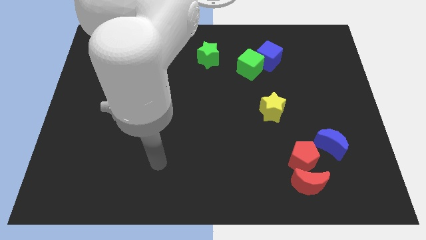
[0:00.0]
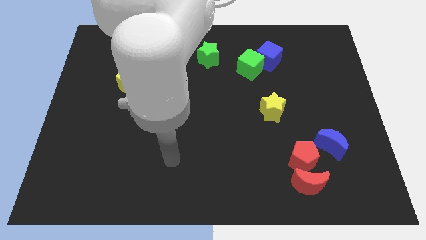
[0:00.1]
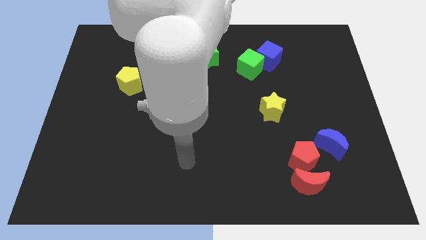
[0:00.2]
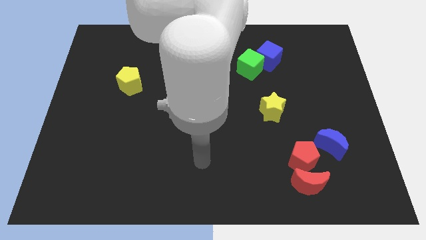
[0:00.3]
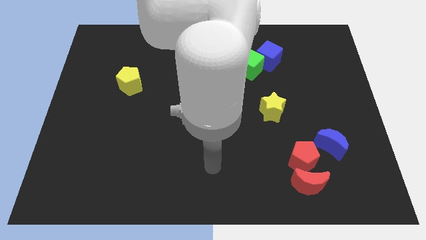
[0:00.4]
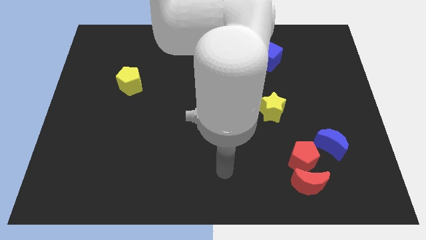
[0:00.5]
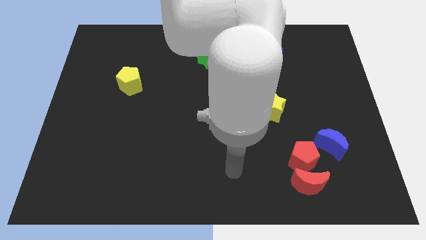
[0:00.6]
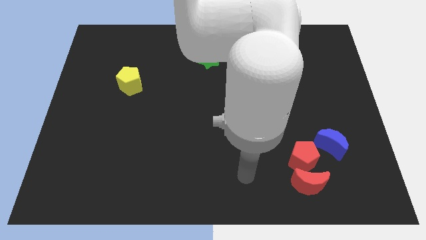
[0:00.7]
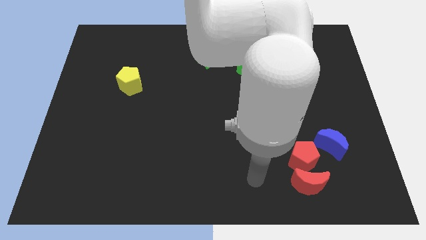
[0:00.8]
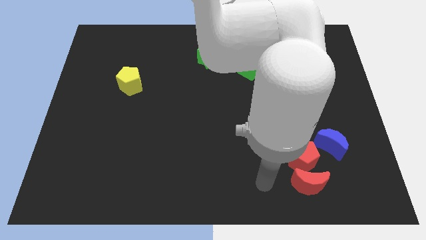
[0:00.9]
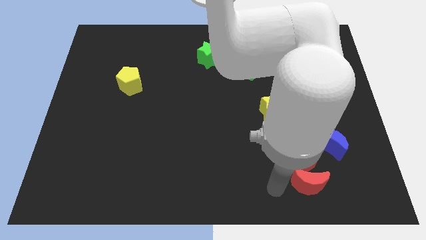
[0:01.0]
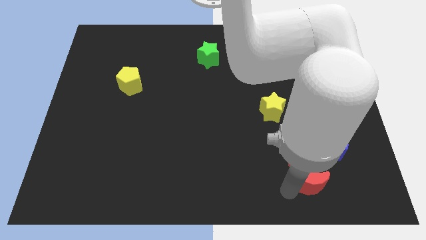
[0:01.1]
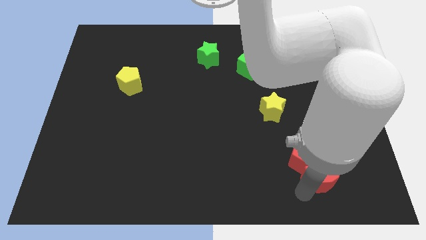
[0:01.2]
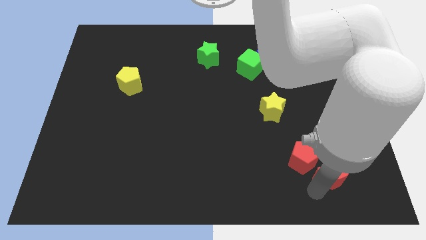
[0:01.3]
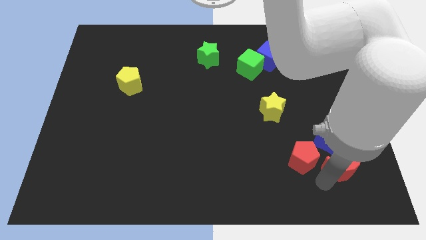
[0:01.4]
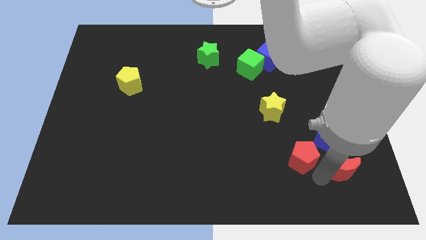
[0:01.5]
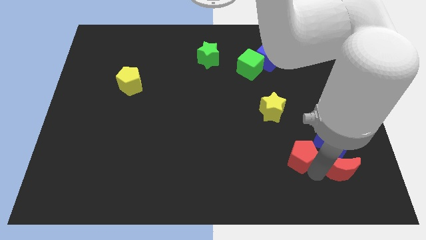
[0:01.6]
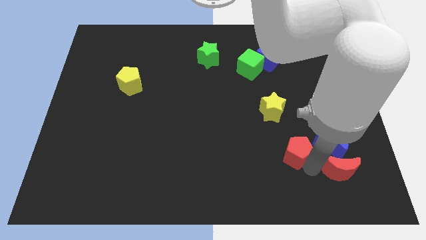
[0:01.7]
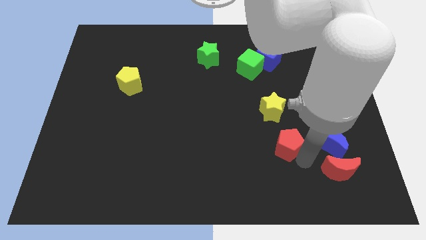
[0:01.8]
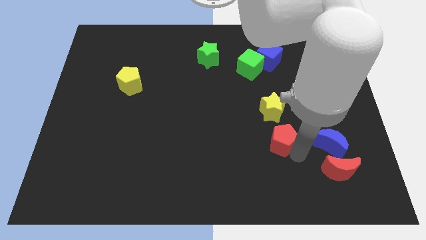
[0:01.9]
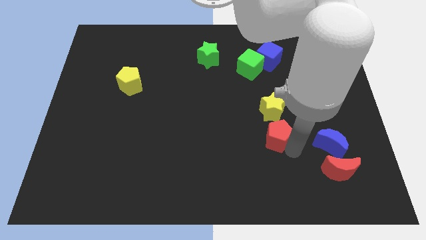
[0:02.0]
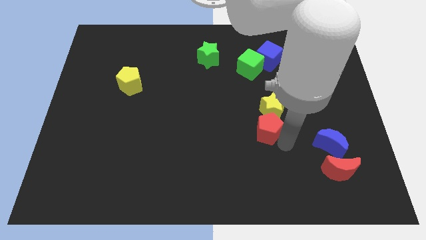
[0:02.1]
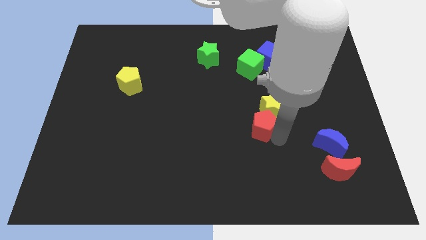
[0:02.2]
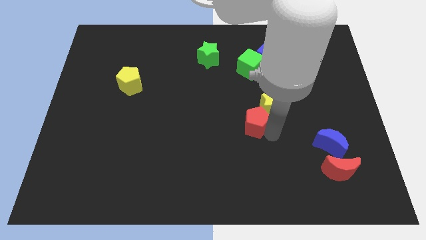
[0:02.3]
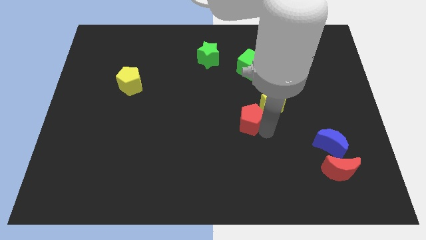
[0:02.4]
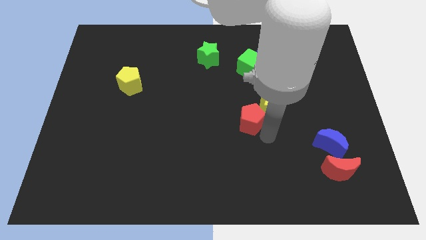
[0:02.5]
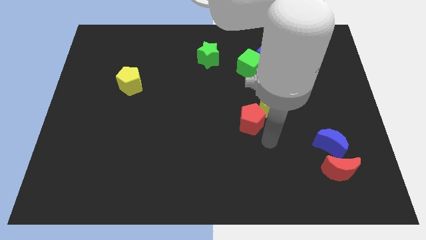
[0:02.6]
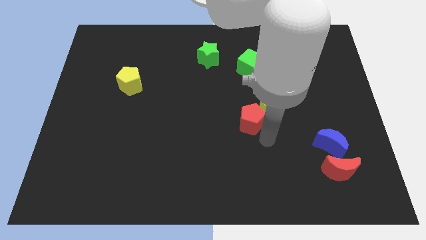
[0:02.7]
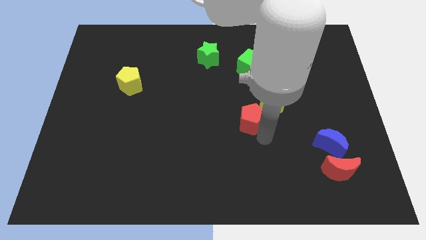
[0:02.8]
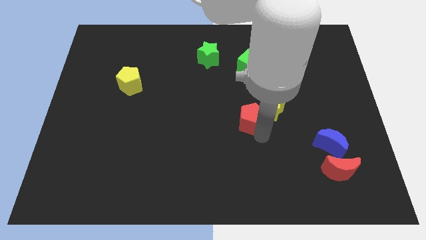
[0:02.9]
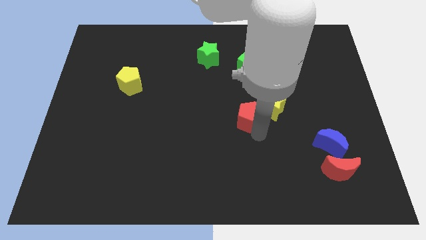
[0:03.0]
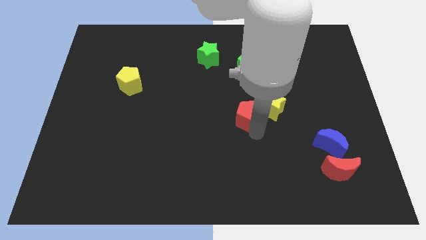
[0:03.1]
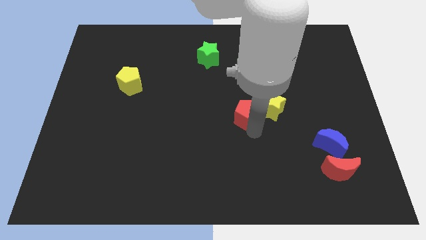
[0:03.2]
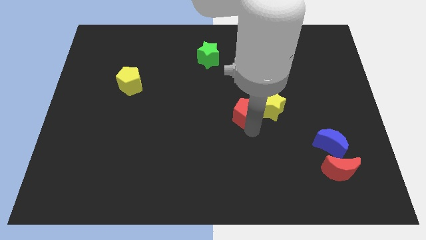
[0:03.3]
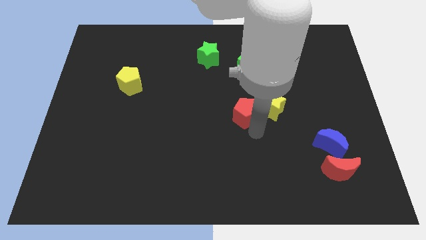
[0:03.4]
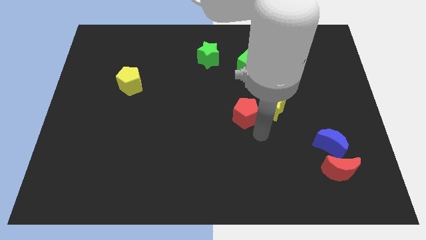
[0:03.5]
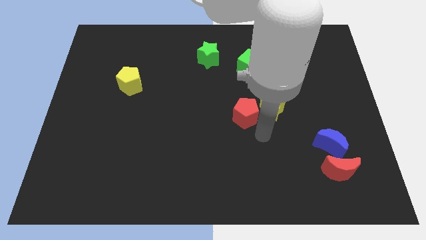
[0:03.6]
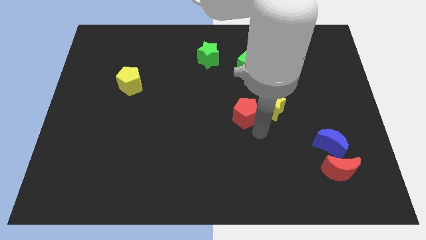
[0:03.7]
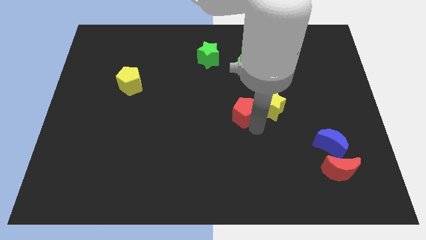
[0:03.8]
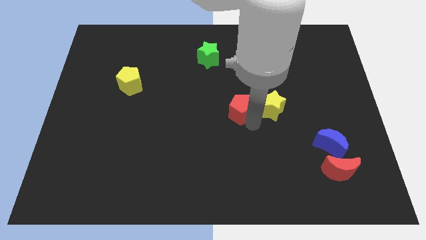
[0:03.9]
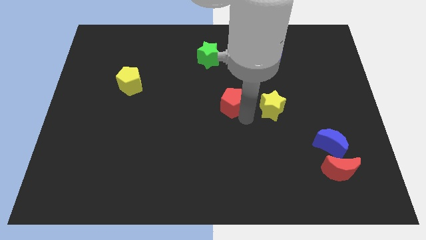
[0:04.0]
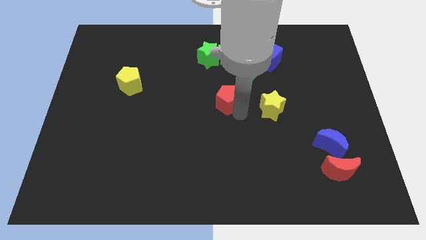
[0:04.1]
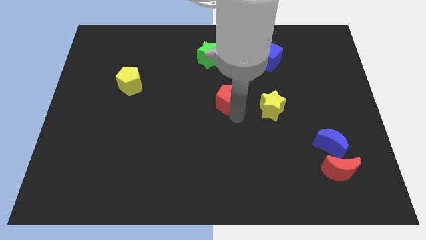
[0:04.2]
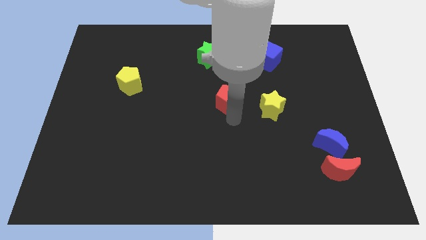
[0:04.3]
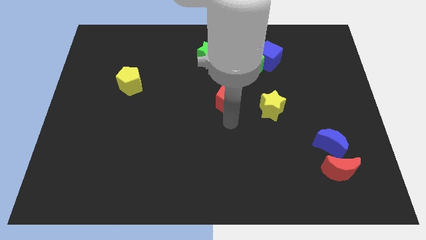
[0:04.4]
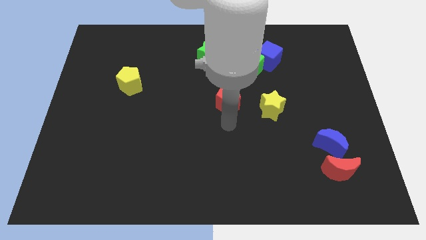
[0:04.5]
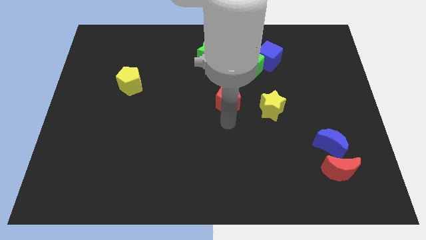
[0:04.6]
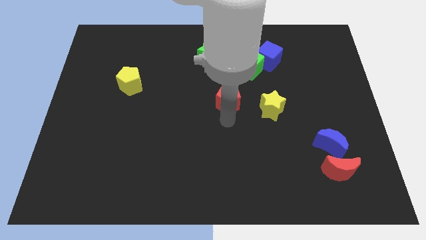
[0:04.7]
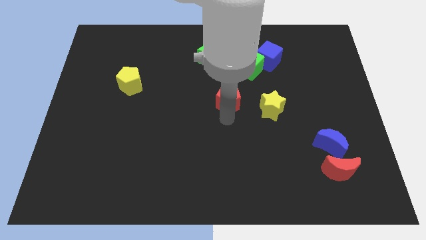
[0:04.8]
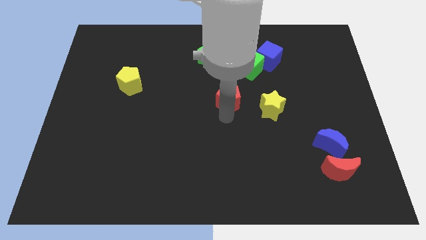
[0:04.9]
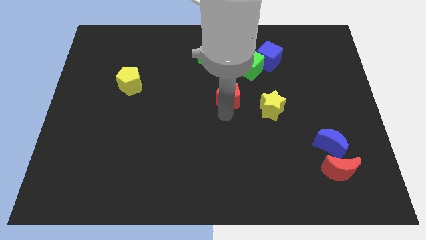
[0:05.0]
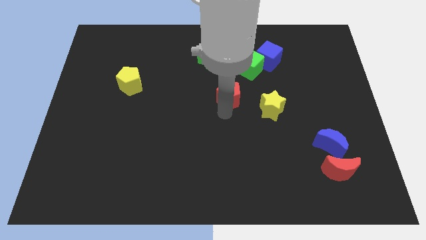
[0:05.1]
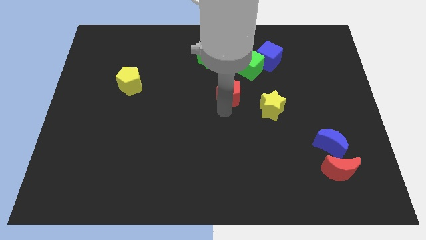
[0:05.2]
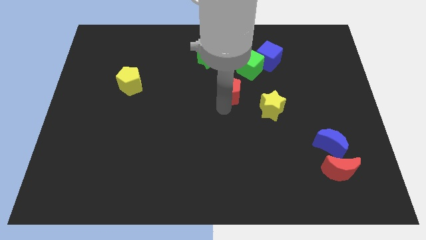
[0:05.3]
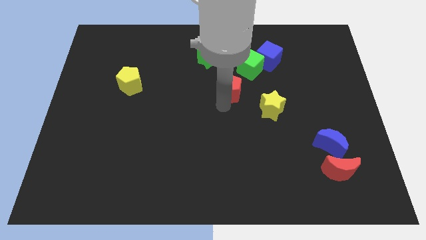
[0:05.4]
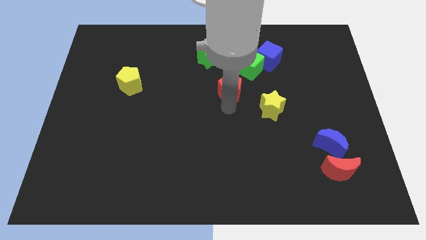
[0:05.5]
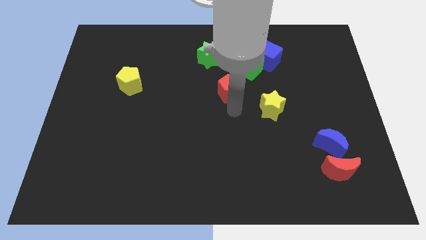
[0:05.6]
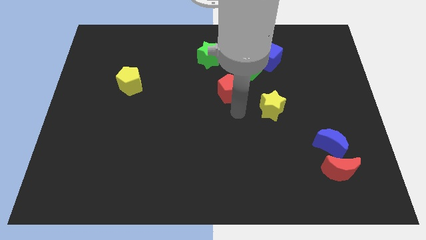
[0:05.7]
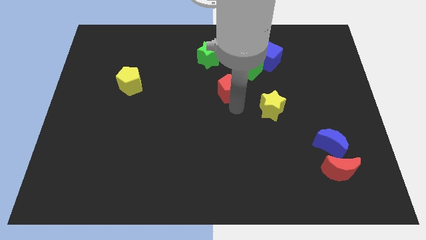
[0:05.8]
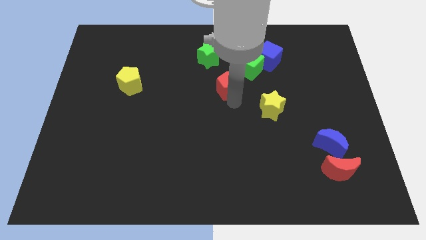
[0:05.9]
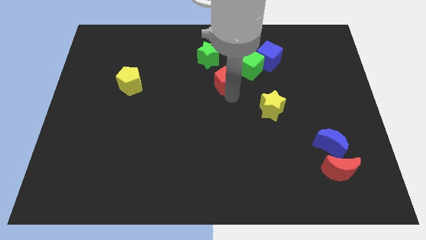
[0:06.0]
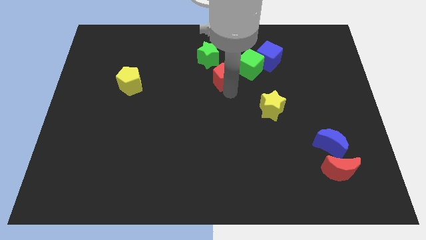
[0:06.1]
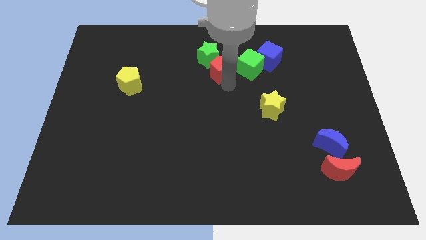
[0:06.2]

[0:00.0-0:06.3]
slide the red pentagon close to the green star
